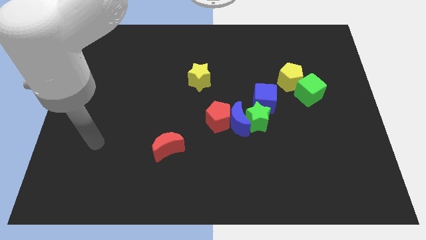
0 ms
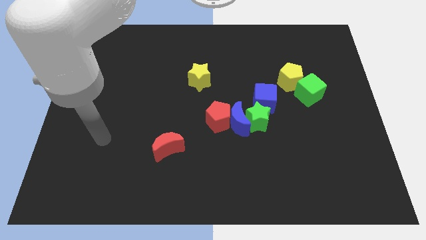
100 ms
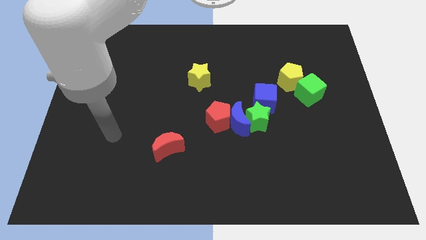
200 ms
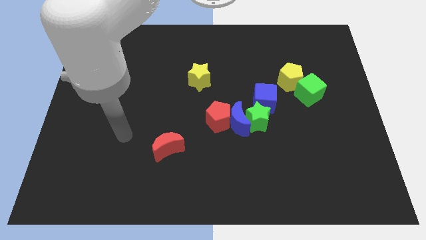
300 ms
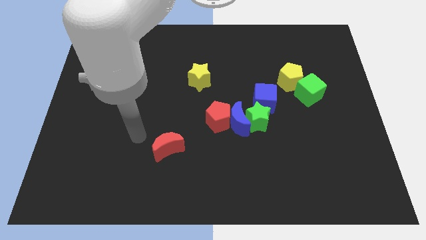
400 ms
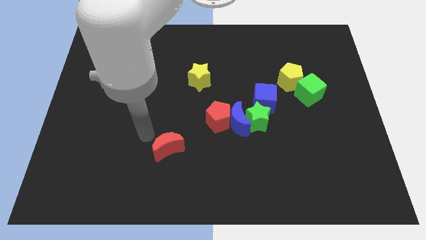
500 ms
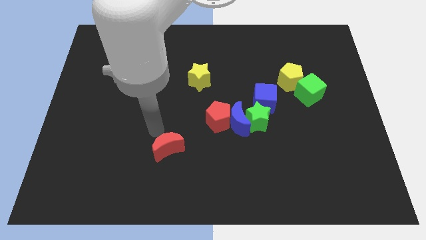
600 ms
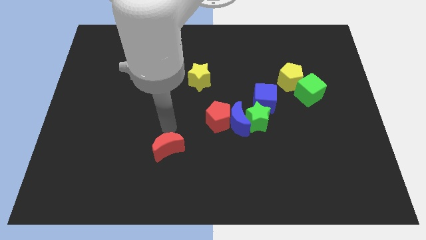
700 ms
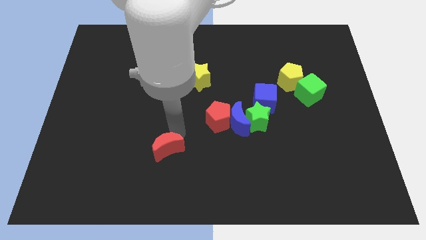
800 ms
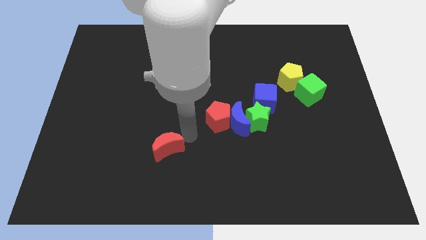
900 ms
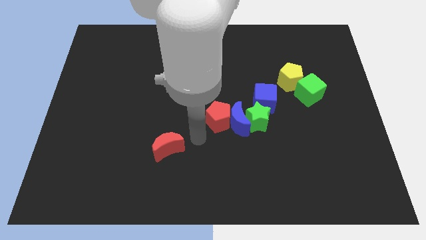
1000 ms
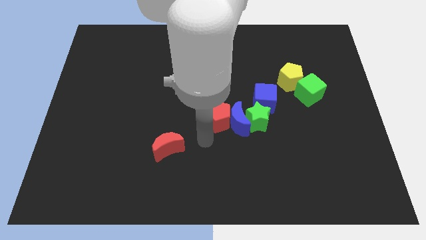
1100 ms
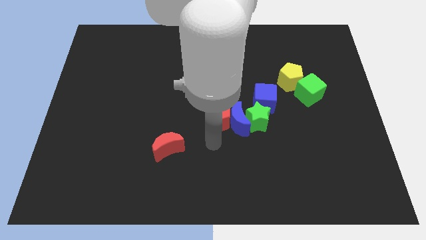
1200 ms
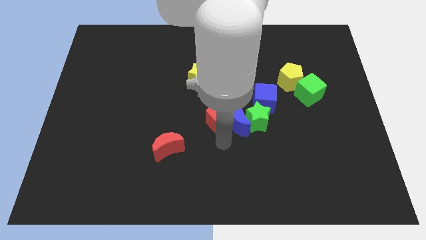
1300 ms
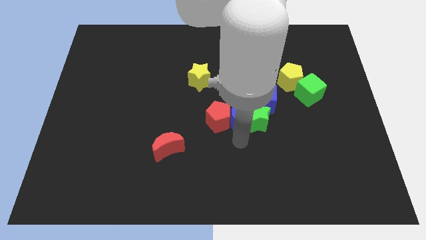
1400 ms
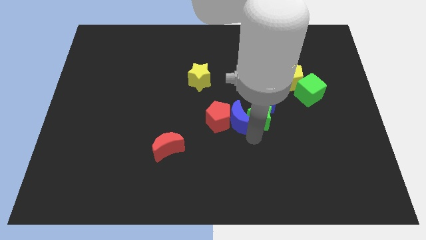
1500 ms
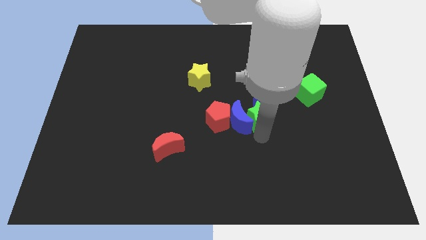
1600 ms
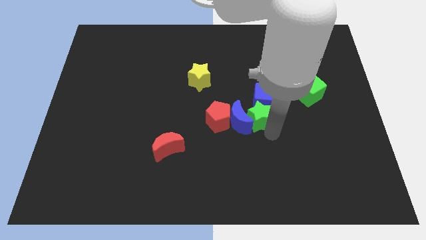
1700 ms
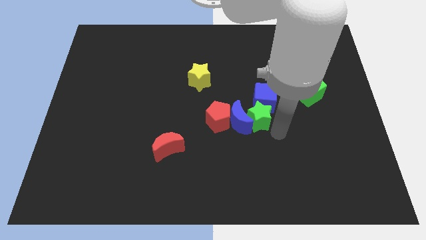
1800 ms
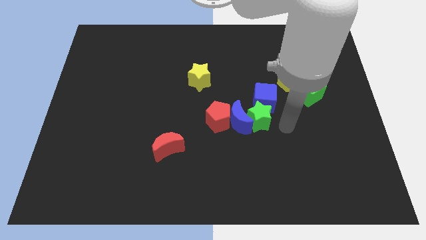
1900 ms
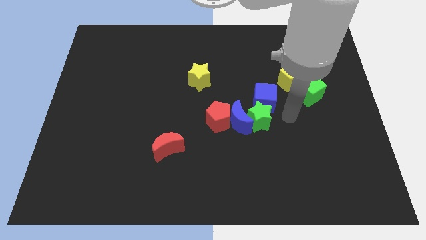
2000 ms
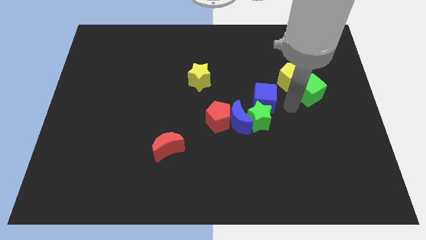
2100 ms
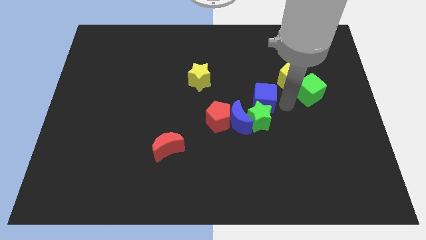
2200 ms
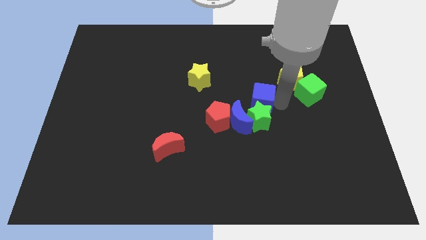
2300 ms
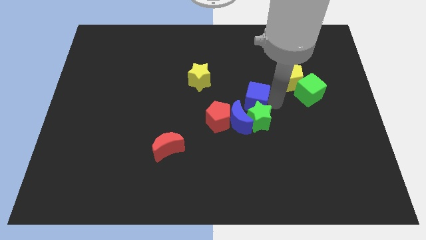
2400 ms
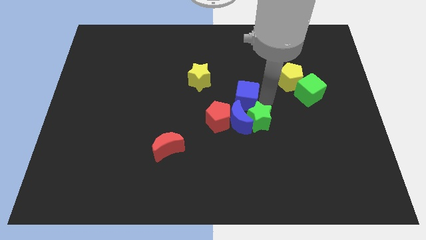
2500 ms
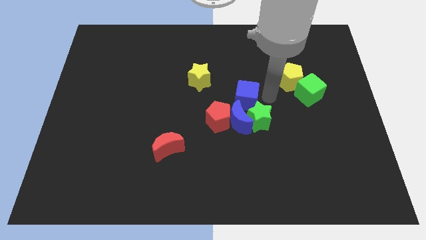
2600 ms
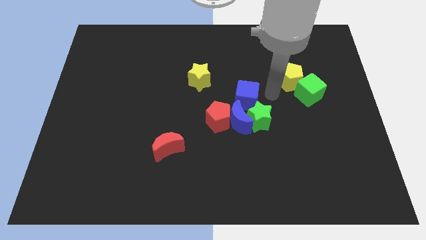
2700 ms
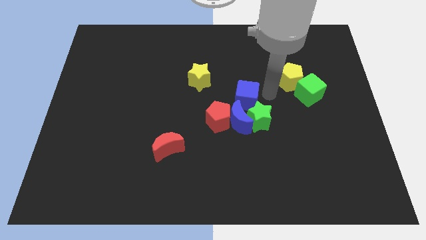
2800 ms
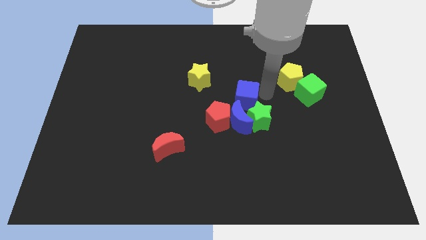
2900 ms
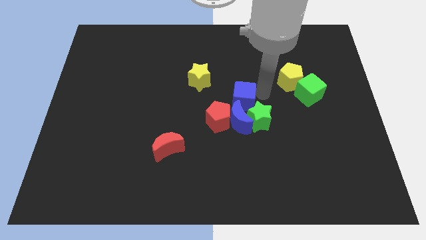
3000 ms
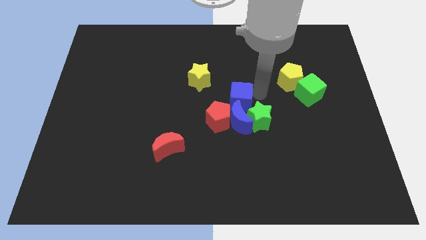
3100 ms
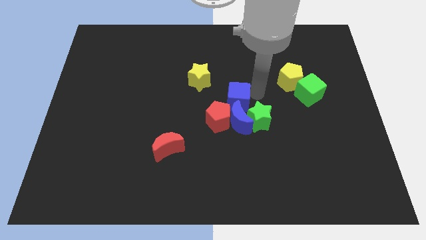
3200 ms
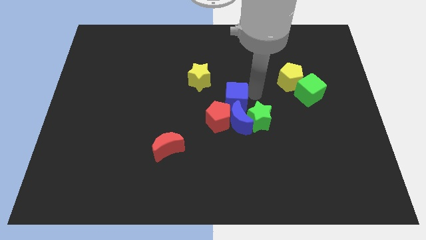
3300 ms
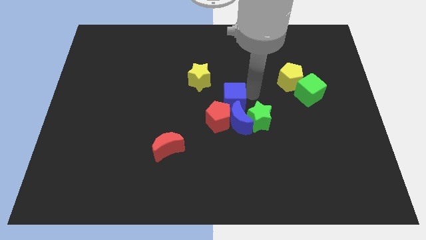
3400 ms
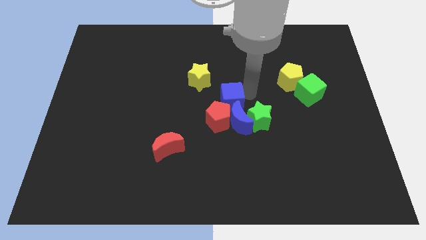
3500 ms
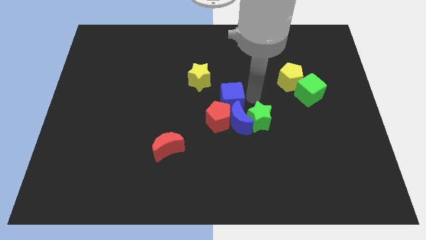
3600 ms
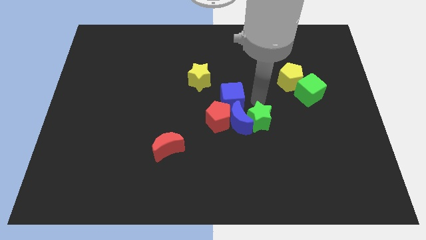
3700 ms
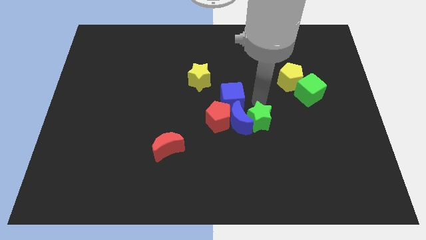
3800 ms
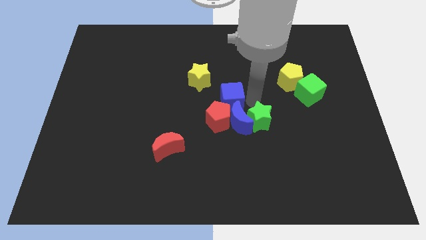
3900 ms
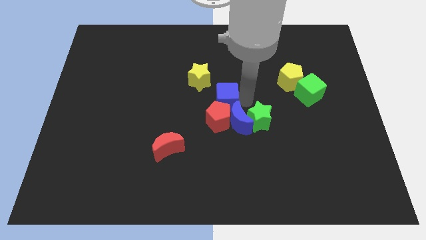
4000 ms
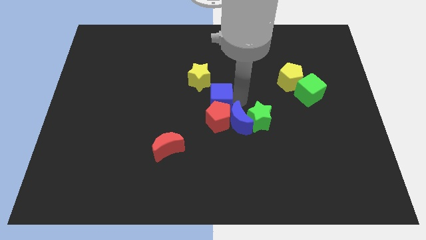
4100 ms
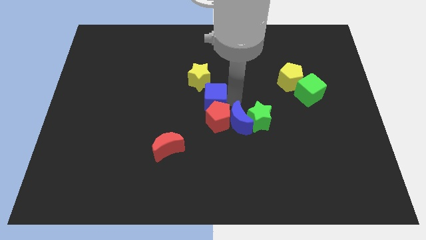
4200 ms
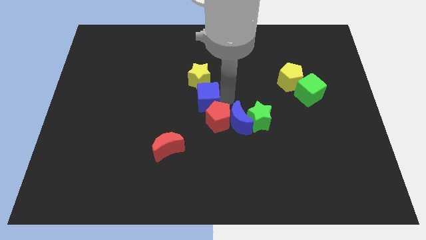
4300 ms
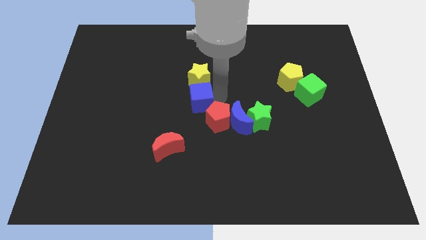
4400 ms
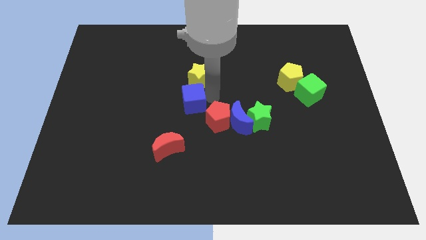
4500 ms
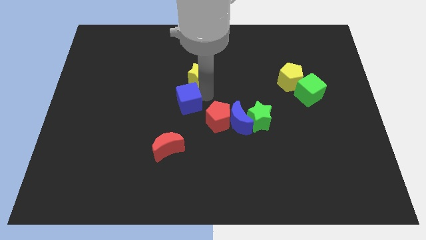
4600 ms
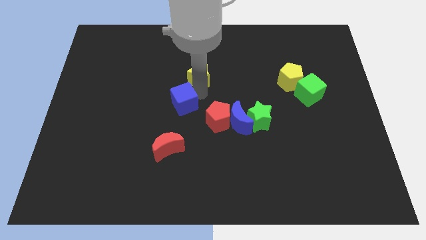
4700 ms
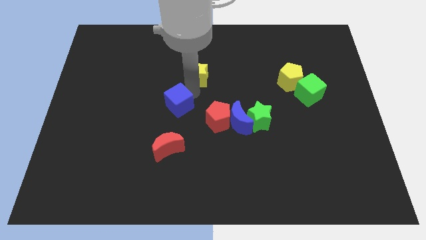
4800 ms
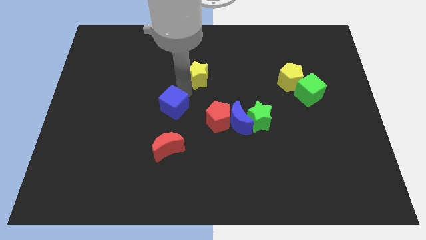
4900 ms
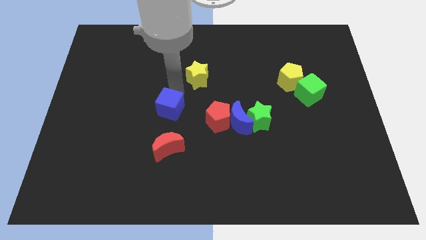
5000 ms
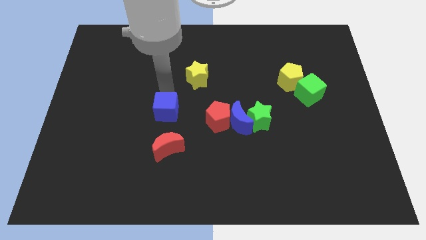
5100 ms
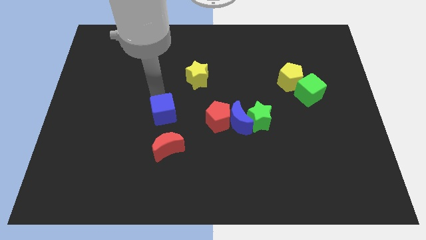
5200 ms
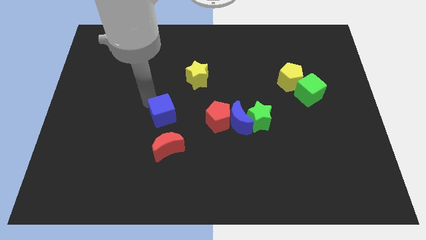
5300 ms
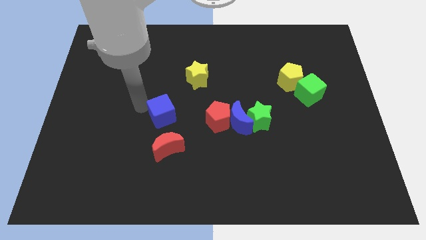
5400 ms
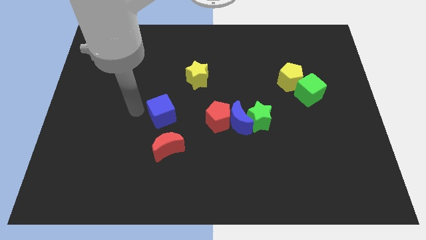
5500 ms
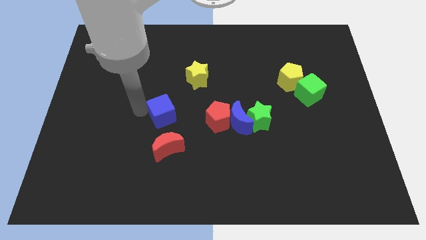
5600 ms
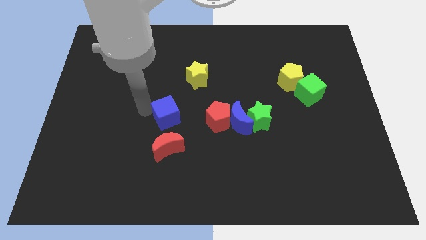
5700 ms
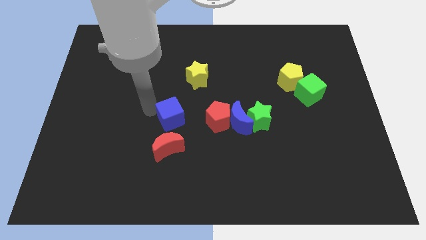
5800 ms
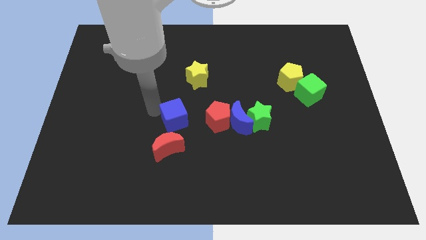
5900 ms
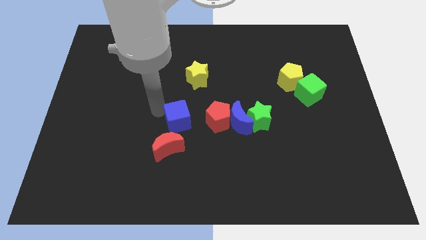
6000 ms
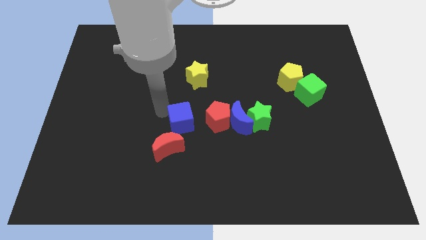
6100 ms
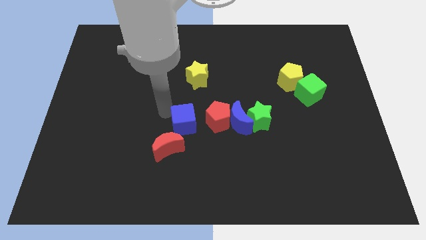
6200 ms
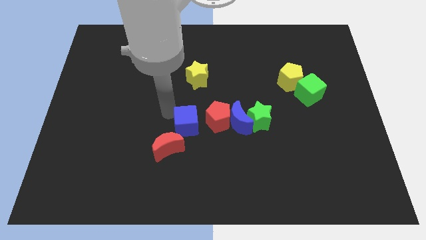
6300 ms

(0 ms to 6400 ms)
put the blue cube to the left side of the green star
